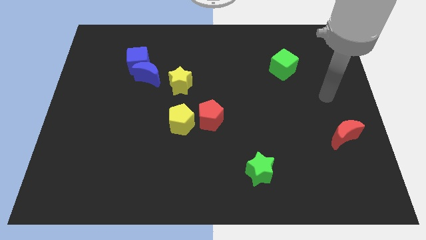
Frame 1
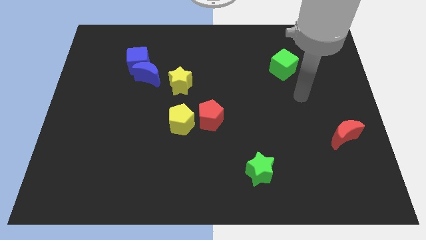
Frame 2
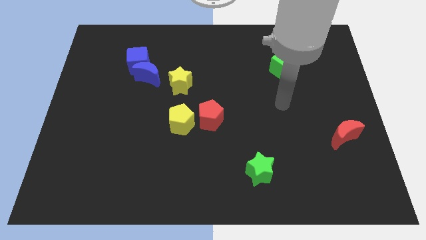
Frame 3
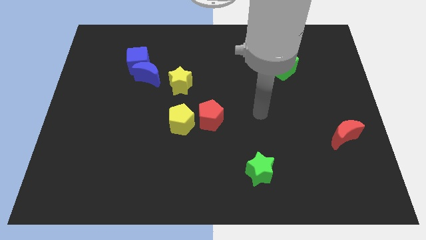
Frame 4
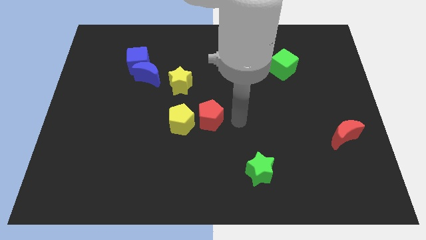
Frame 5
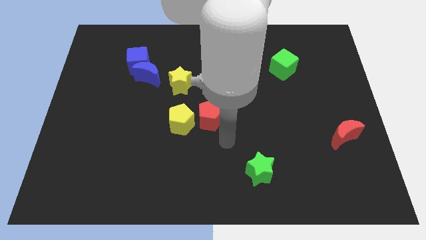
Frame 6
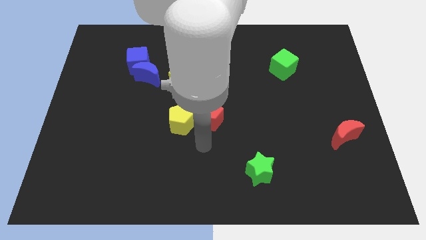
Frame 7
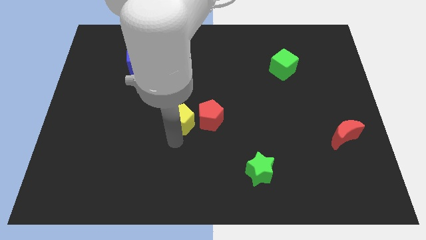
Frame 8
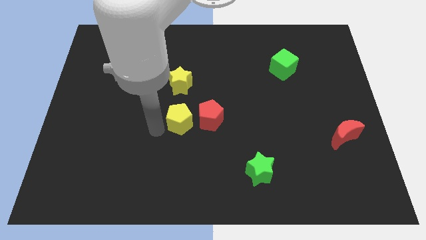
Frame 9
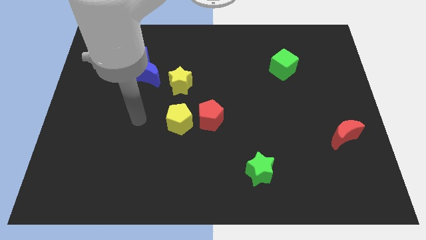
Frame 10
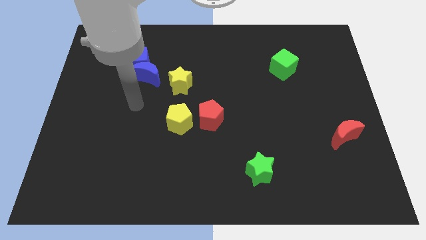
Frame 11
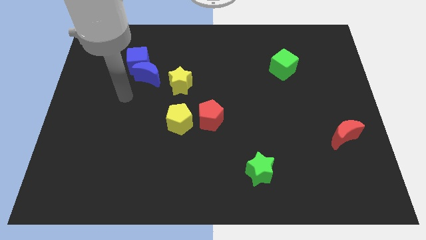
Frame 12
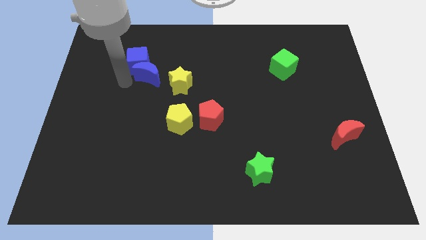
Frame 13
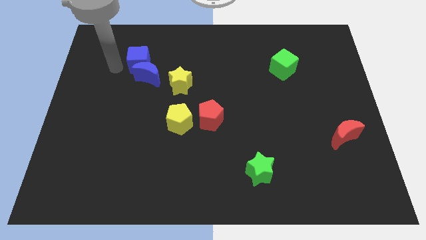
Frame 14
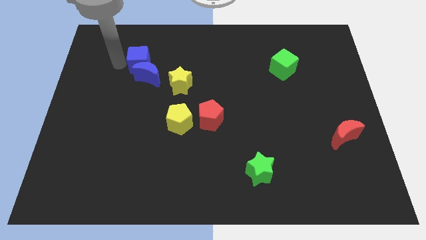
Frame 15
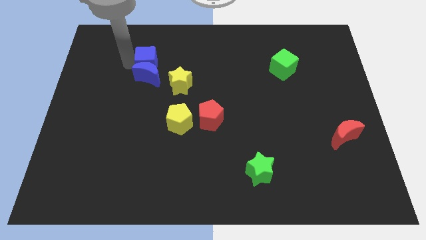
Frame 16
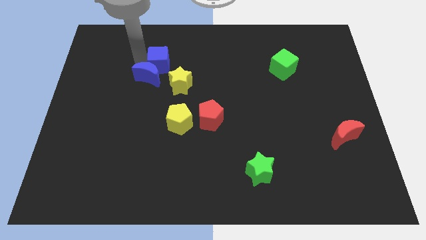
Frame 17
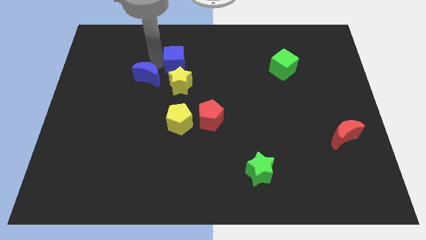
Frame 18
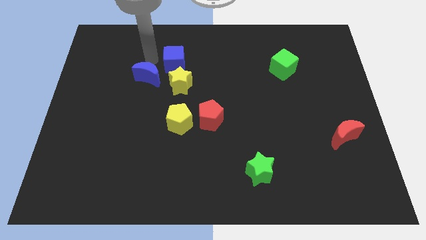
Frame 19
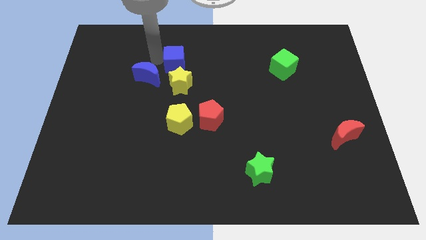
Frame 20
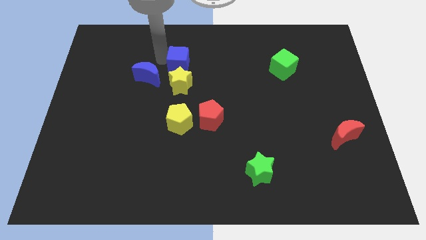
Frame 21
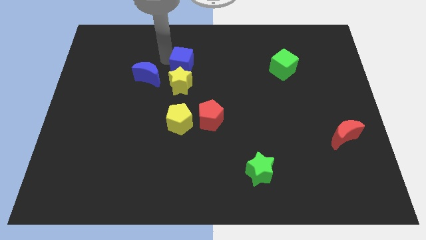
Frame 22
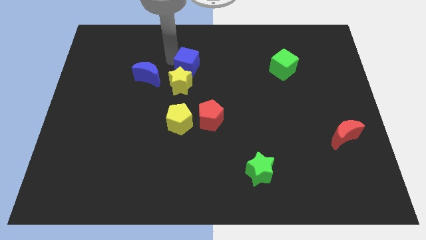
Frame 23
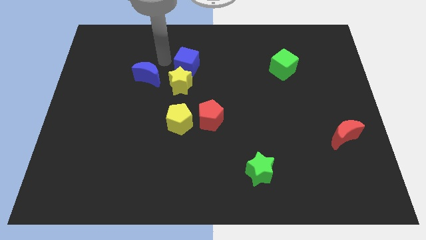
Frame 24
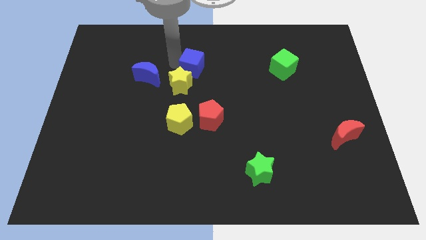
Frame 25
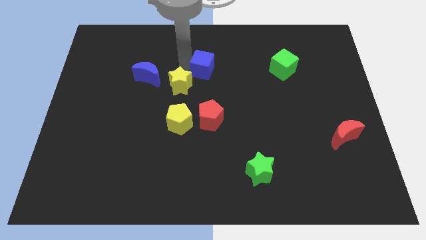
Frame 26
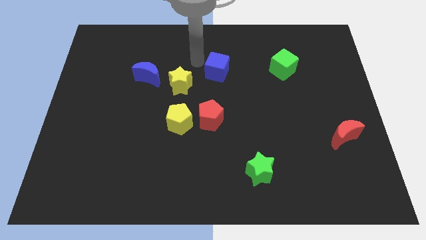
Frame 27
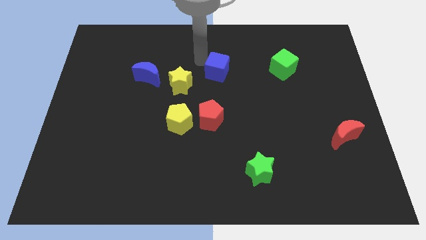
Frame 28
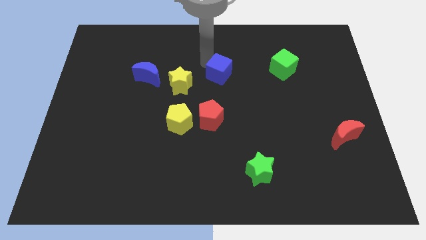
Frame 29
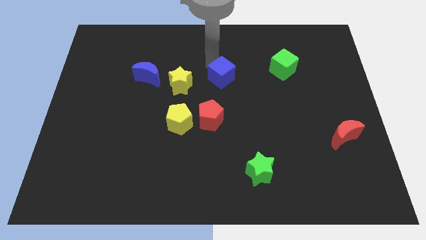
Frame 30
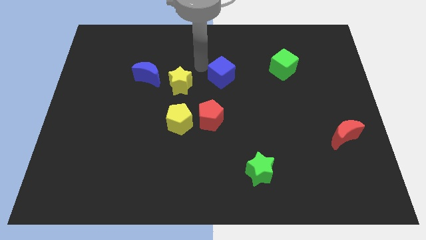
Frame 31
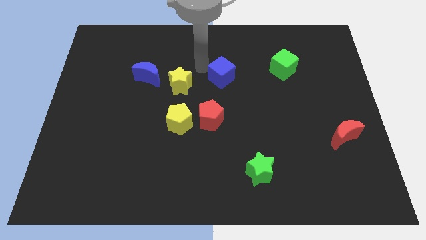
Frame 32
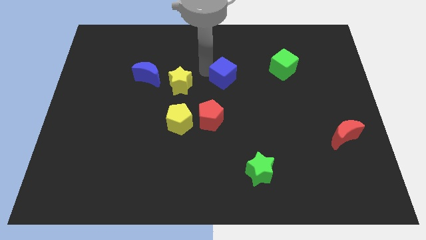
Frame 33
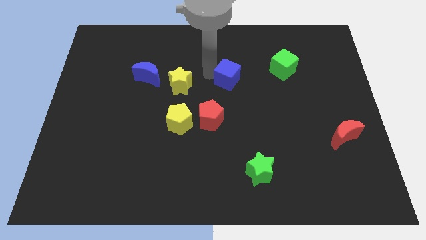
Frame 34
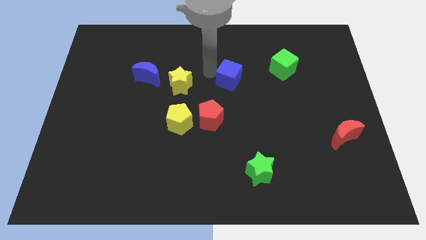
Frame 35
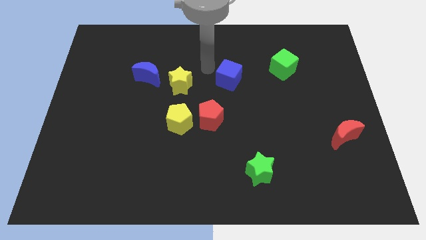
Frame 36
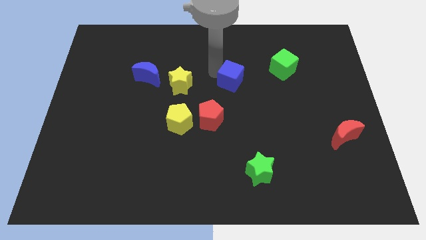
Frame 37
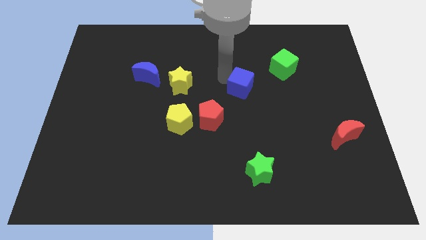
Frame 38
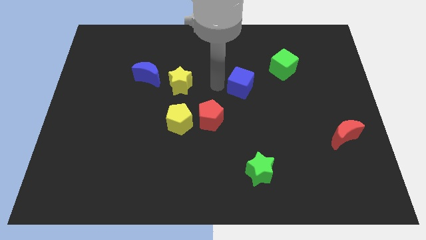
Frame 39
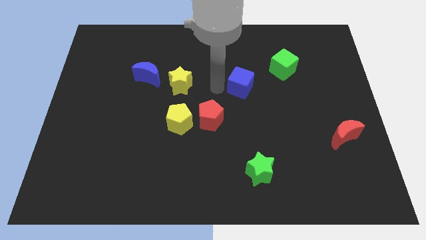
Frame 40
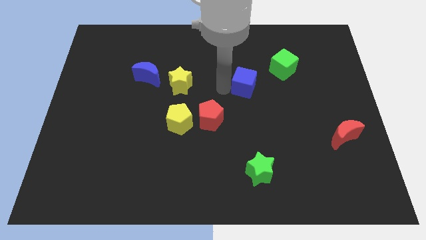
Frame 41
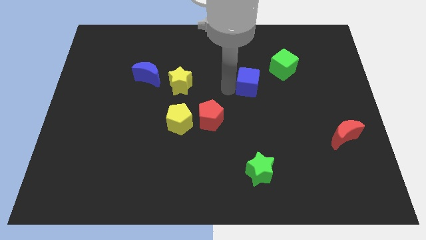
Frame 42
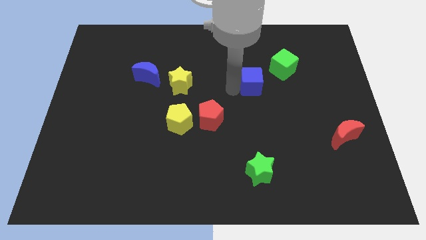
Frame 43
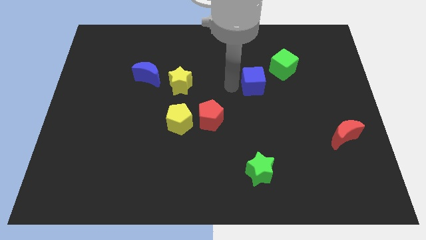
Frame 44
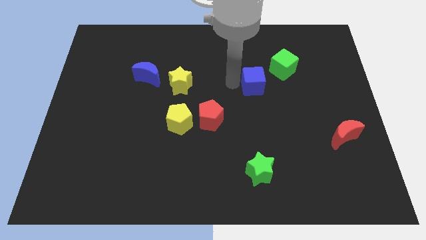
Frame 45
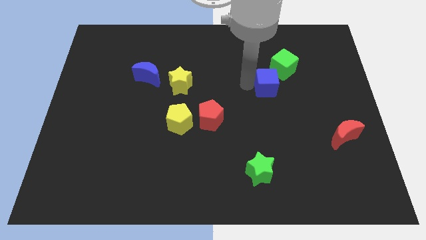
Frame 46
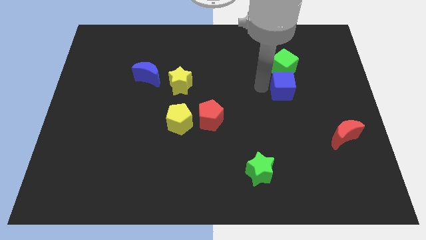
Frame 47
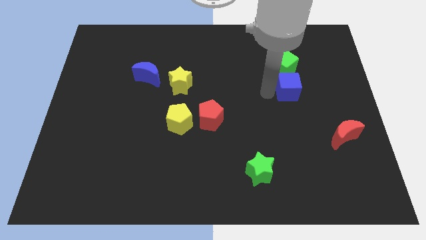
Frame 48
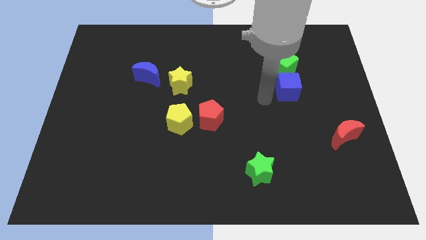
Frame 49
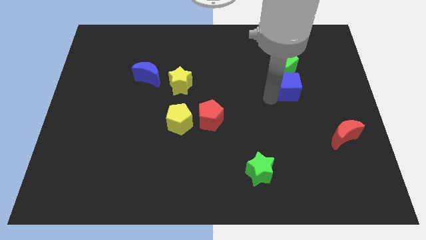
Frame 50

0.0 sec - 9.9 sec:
move the blue cube to the bottom right side of the green cube

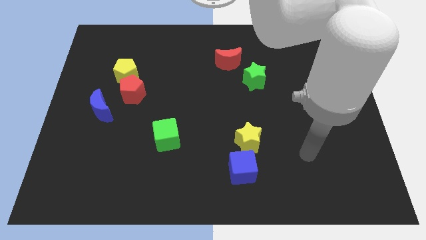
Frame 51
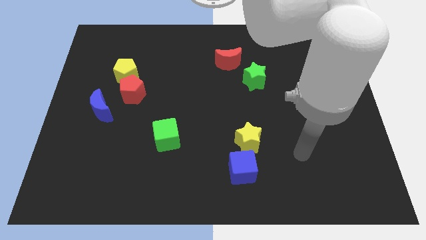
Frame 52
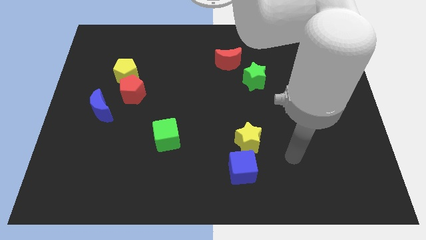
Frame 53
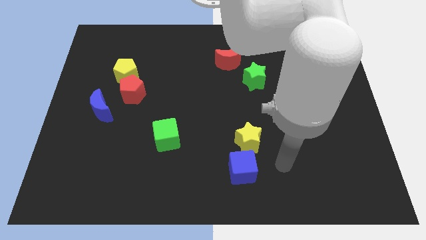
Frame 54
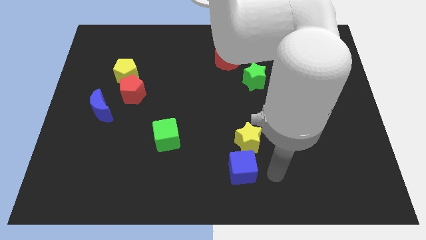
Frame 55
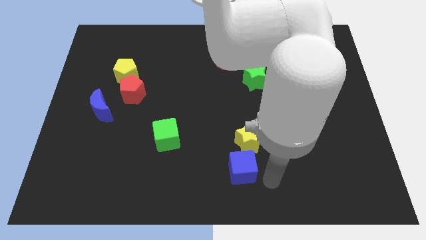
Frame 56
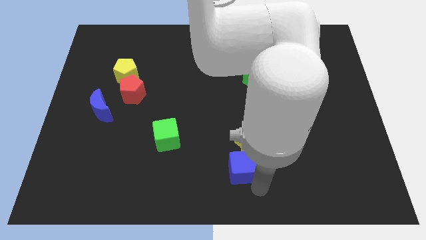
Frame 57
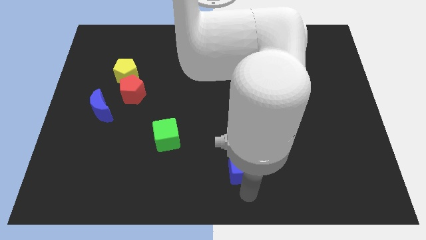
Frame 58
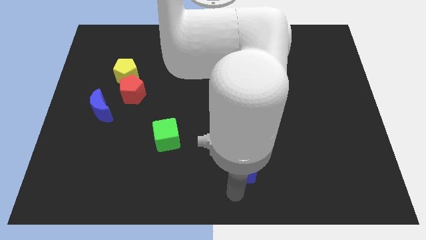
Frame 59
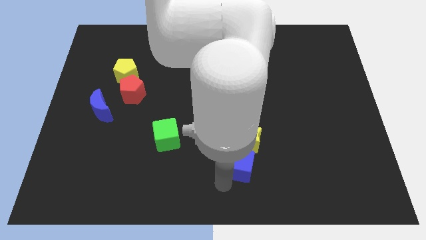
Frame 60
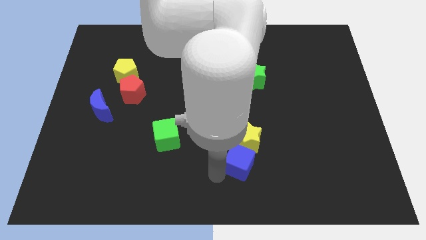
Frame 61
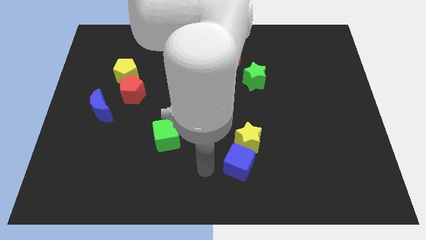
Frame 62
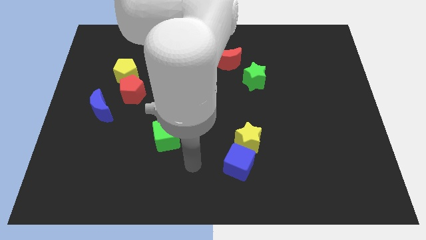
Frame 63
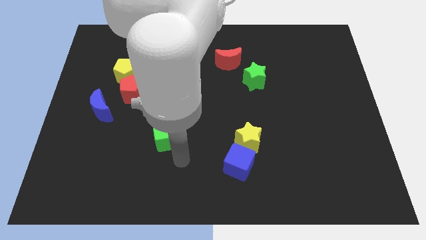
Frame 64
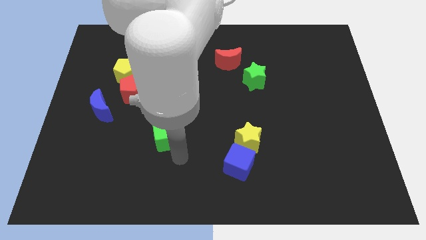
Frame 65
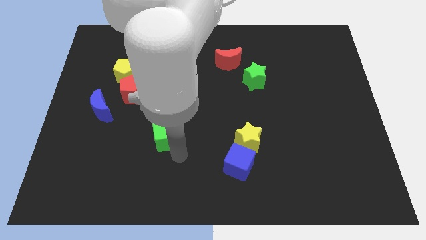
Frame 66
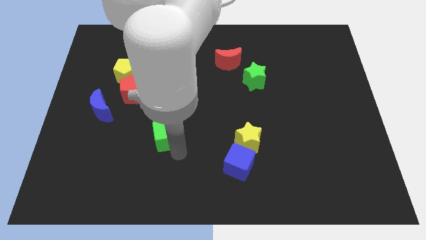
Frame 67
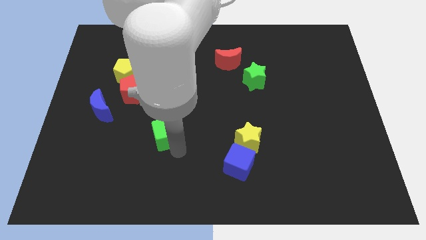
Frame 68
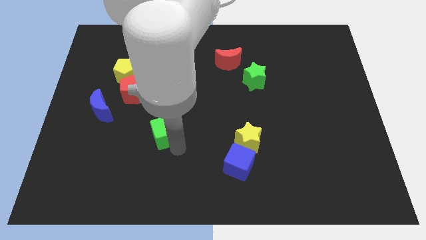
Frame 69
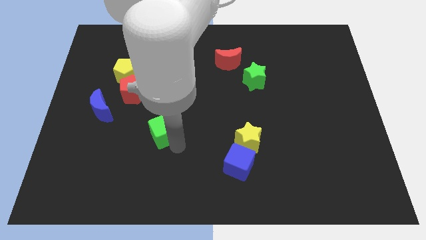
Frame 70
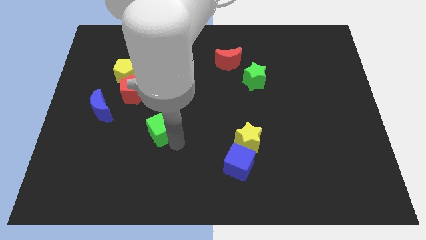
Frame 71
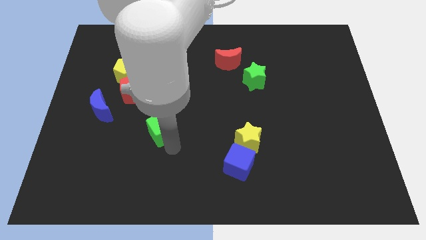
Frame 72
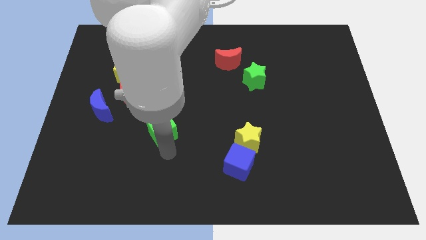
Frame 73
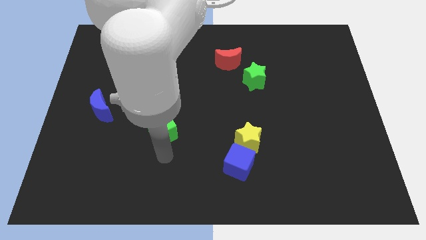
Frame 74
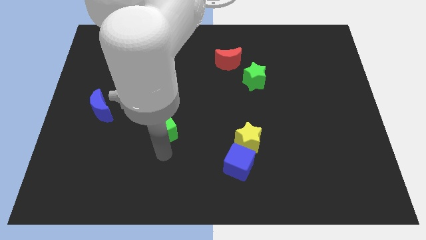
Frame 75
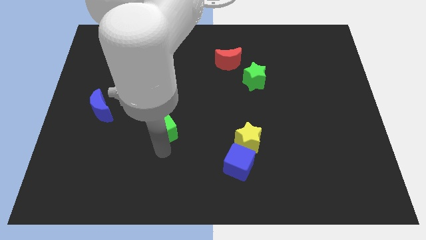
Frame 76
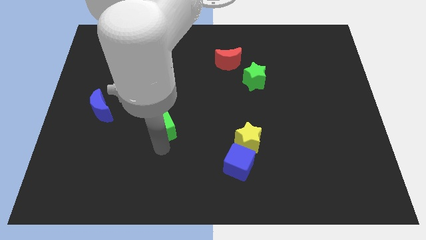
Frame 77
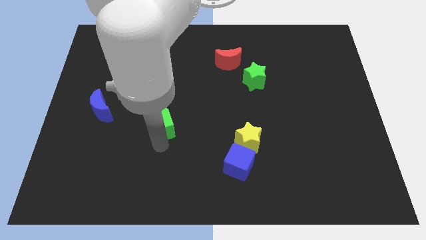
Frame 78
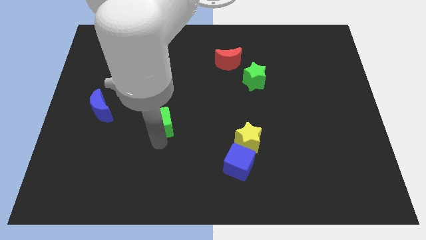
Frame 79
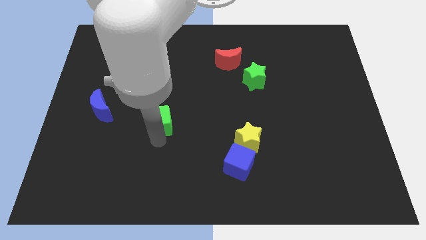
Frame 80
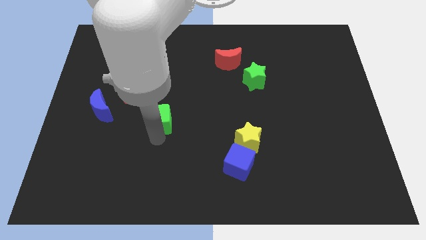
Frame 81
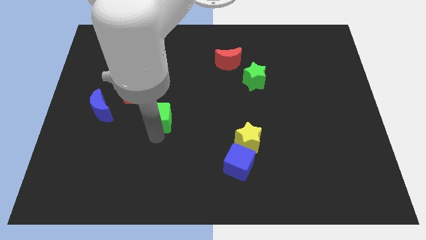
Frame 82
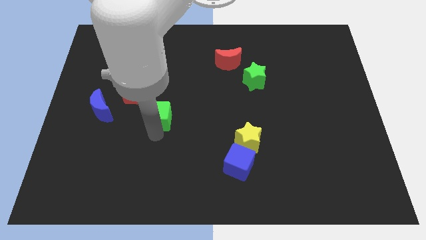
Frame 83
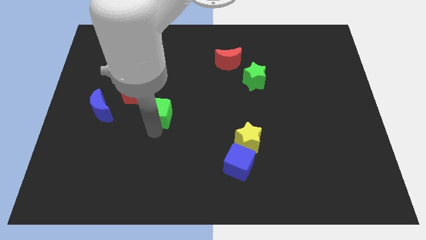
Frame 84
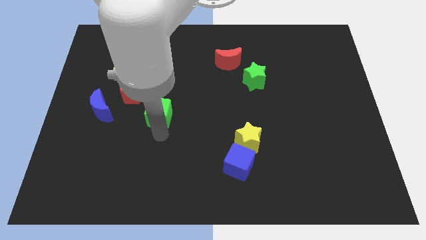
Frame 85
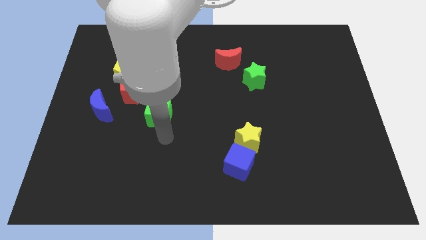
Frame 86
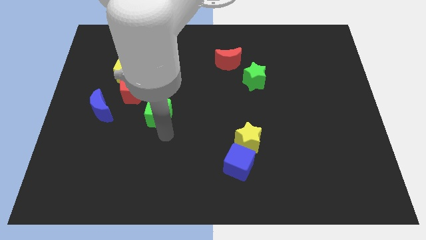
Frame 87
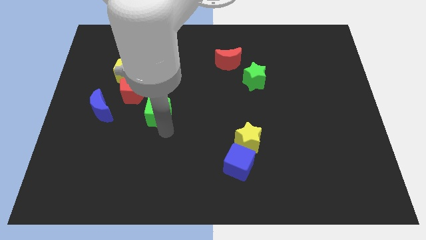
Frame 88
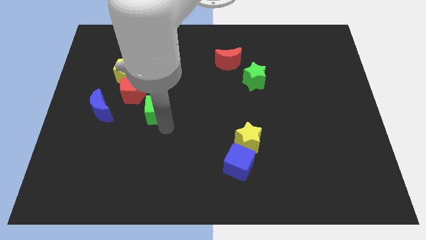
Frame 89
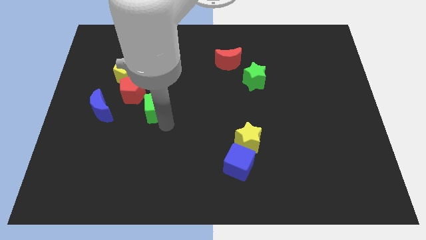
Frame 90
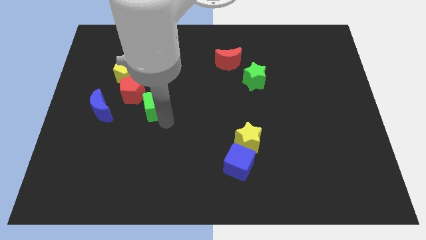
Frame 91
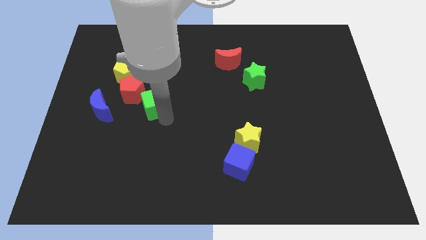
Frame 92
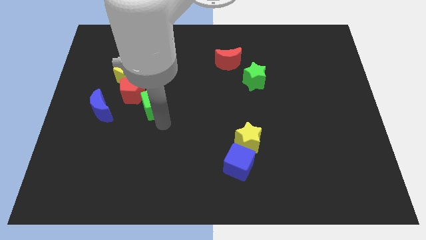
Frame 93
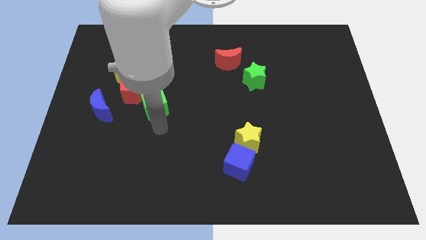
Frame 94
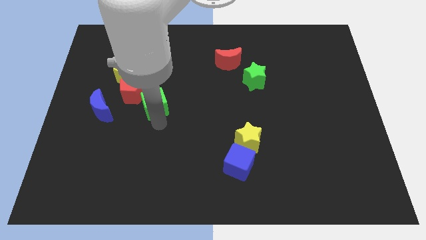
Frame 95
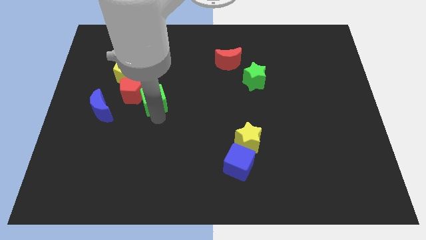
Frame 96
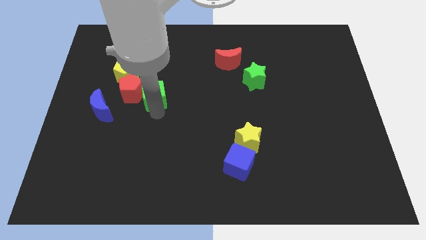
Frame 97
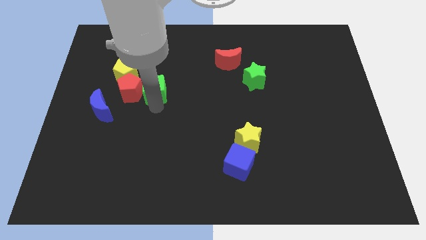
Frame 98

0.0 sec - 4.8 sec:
slide the green cube to the top right side of the red pentagon
